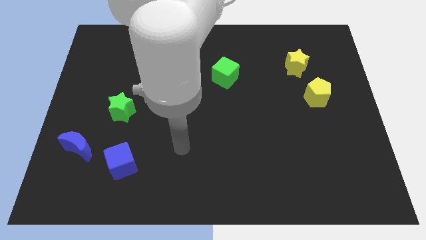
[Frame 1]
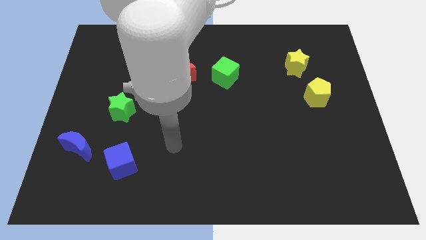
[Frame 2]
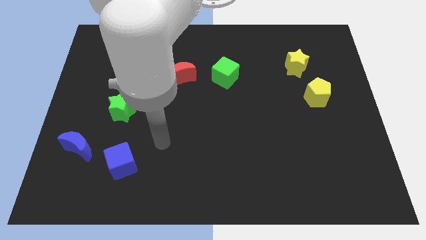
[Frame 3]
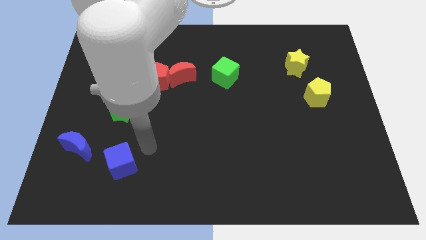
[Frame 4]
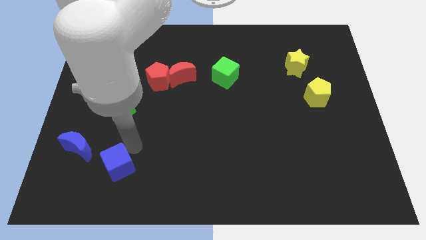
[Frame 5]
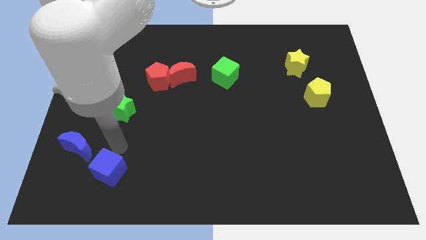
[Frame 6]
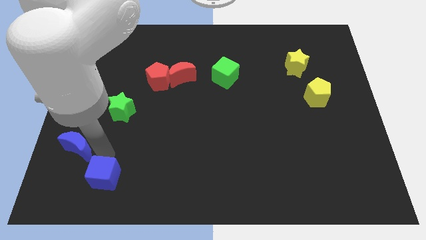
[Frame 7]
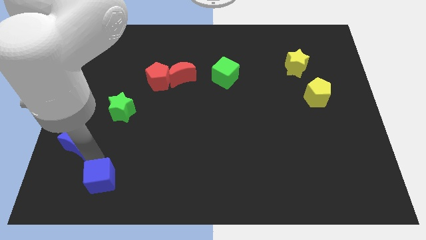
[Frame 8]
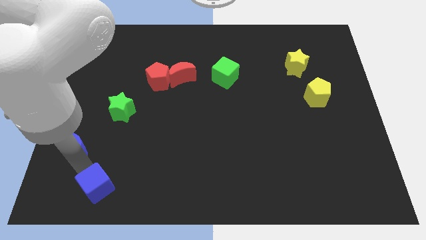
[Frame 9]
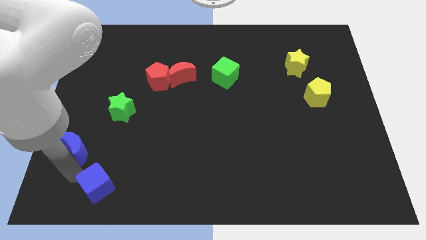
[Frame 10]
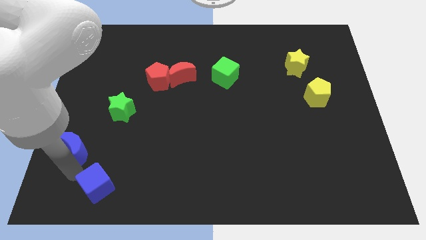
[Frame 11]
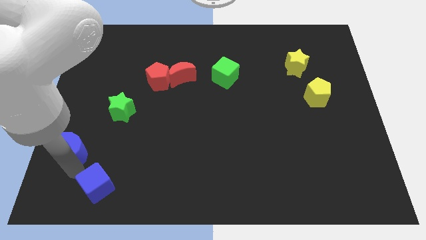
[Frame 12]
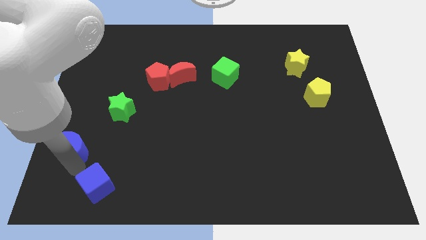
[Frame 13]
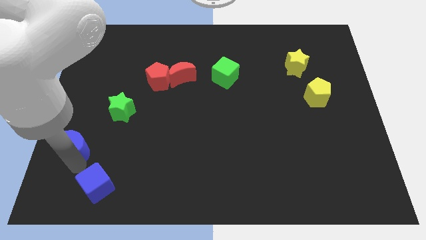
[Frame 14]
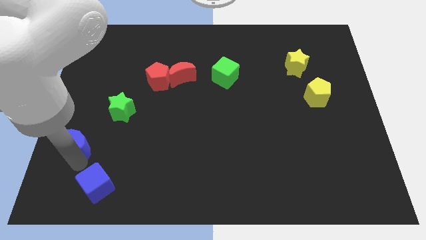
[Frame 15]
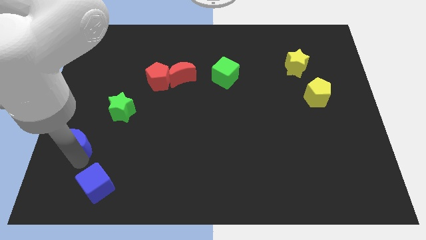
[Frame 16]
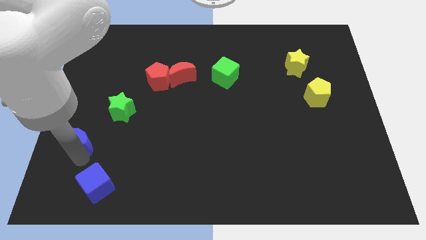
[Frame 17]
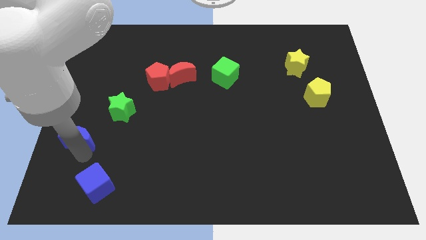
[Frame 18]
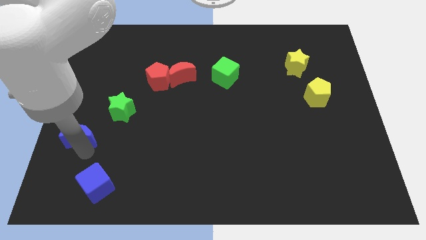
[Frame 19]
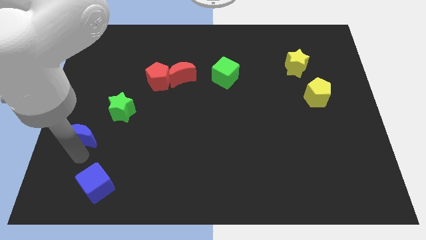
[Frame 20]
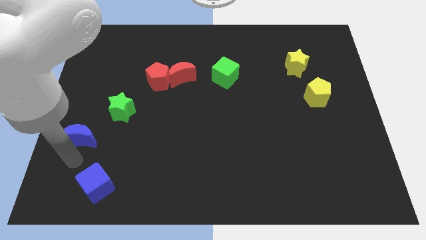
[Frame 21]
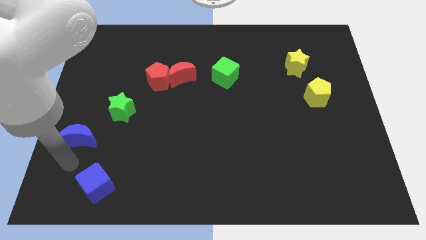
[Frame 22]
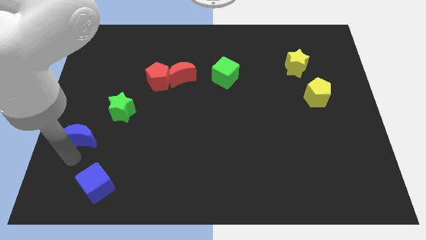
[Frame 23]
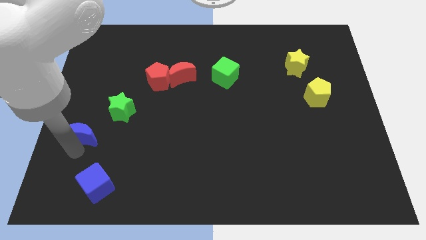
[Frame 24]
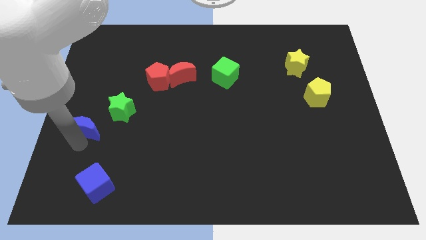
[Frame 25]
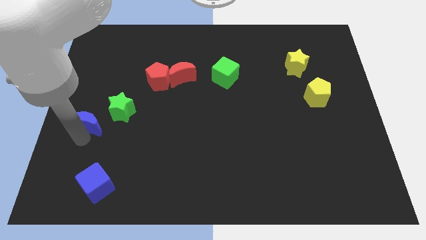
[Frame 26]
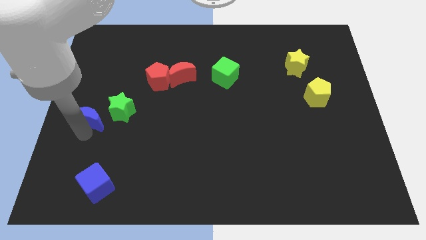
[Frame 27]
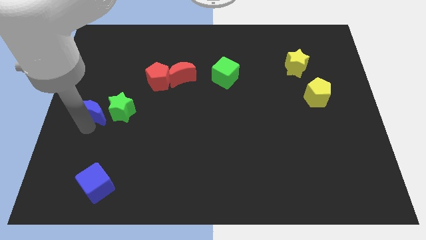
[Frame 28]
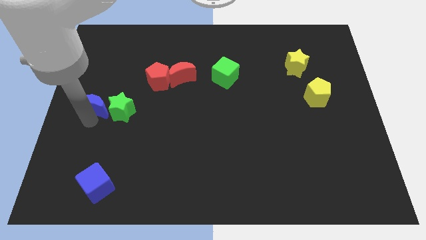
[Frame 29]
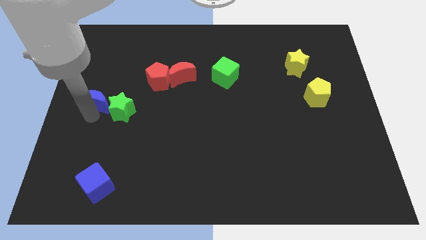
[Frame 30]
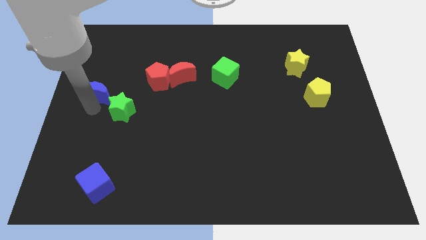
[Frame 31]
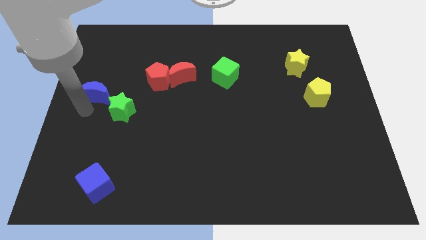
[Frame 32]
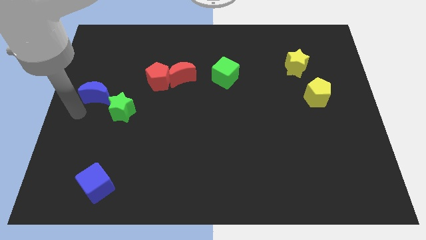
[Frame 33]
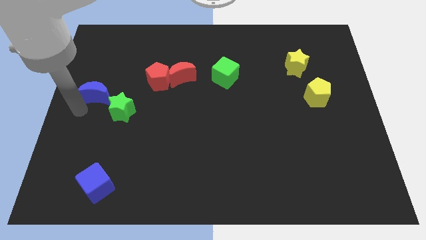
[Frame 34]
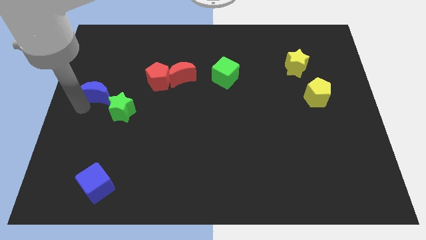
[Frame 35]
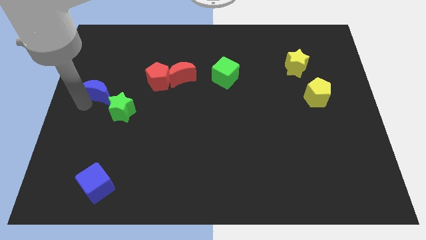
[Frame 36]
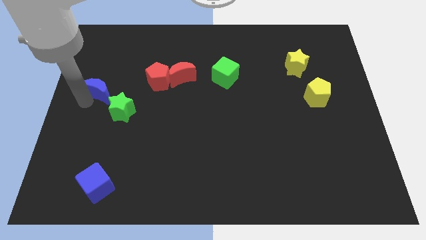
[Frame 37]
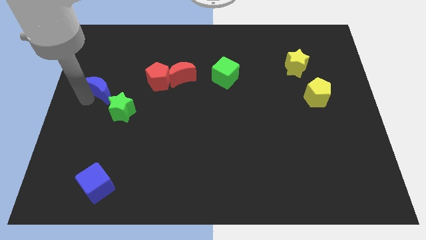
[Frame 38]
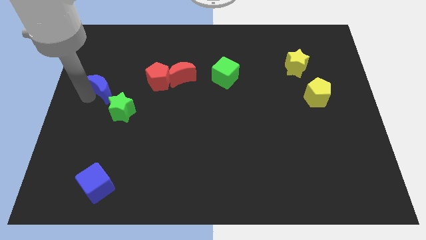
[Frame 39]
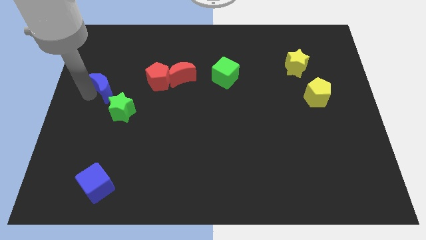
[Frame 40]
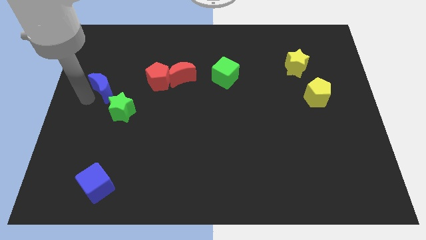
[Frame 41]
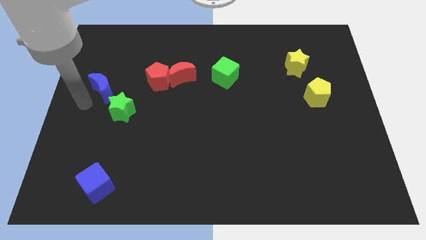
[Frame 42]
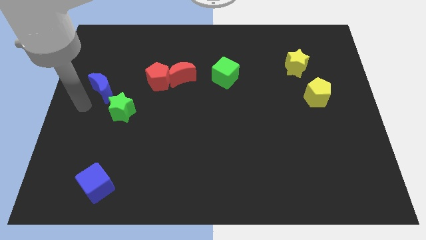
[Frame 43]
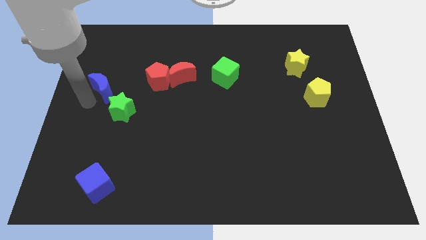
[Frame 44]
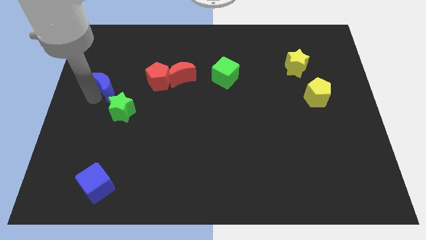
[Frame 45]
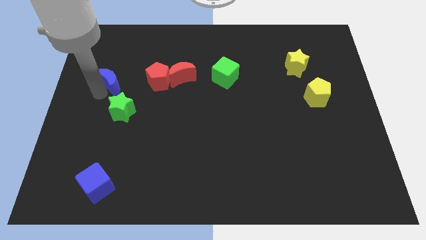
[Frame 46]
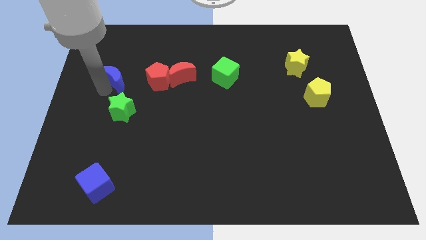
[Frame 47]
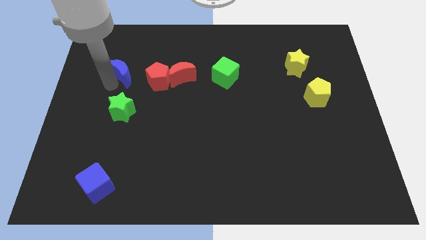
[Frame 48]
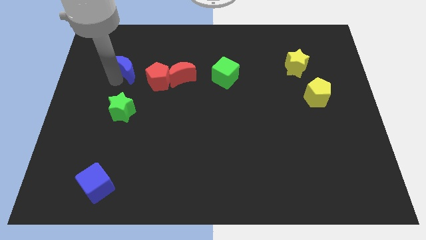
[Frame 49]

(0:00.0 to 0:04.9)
push the blue moon to the top left of the red pentagon

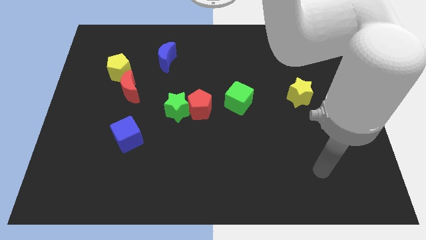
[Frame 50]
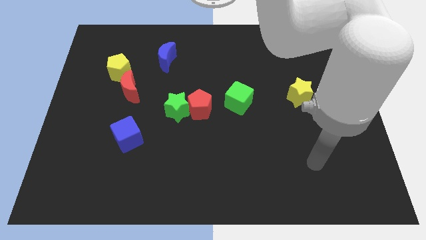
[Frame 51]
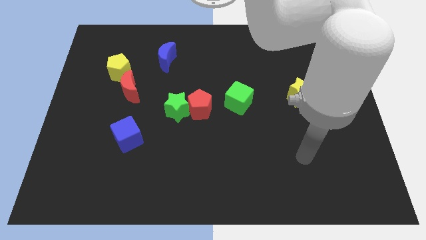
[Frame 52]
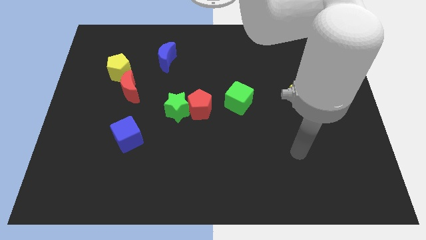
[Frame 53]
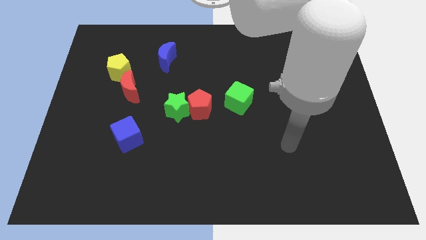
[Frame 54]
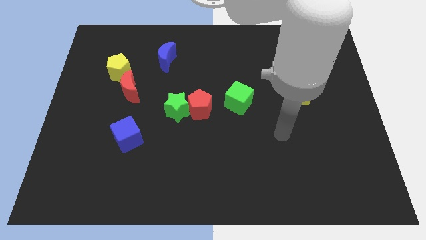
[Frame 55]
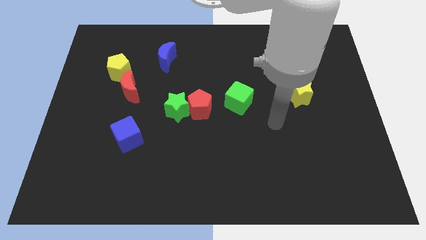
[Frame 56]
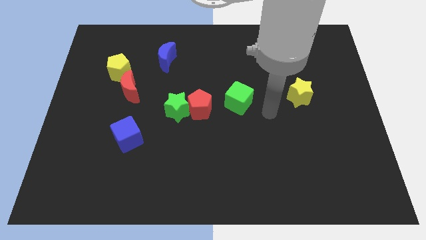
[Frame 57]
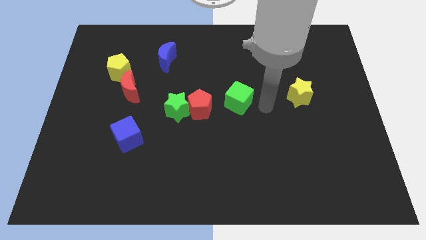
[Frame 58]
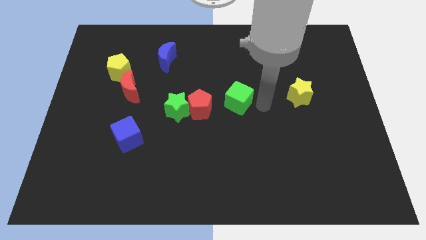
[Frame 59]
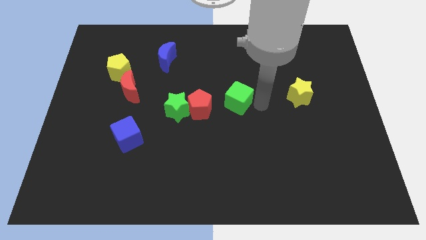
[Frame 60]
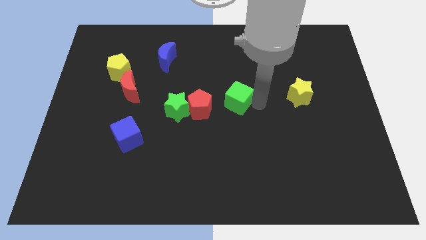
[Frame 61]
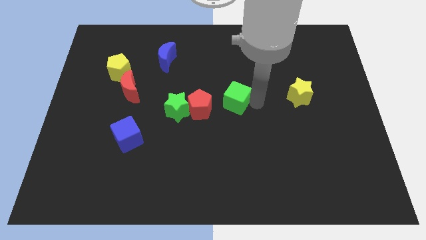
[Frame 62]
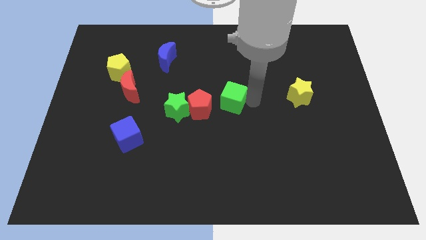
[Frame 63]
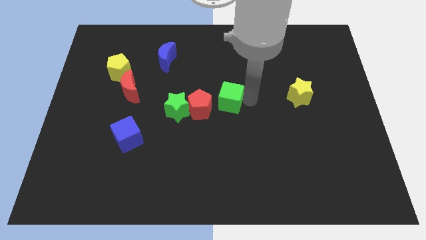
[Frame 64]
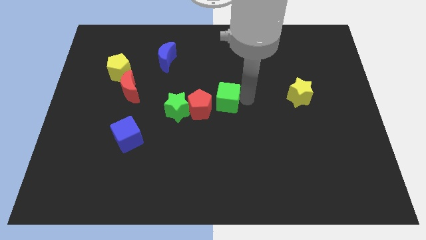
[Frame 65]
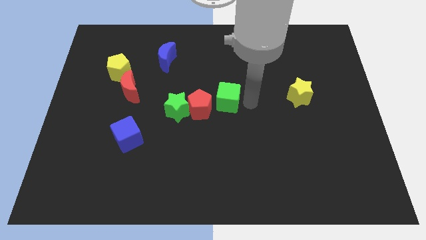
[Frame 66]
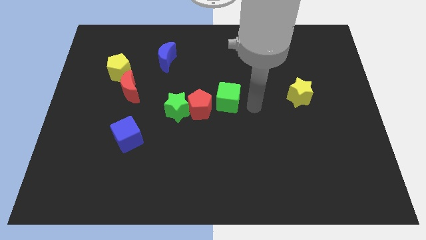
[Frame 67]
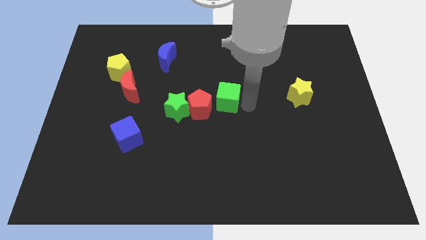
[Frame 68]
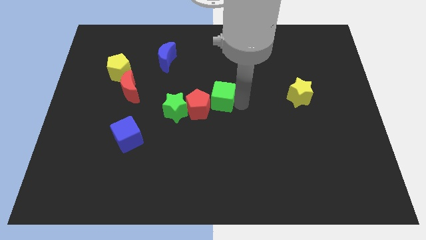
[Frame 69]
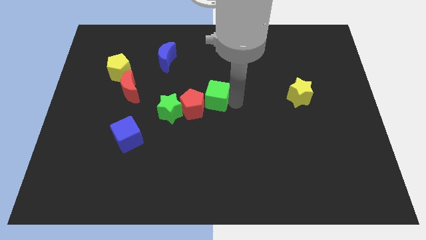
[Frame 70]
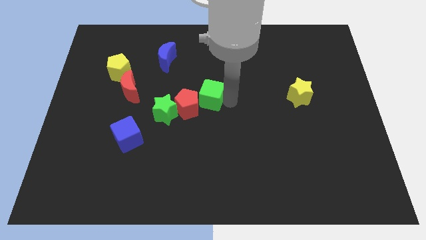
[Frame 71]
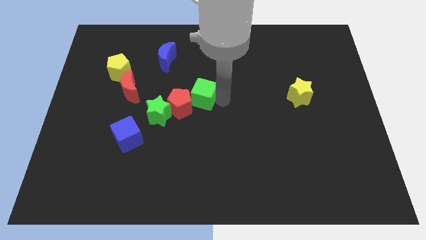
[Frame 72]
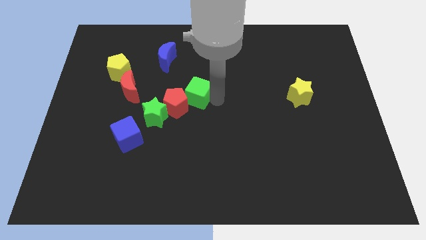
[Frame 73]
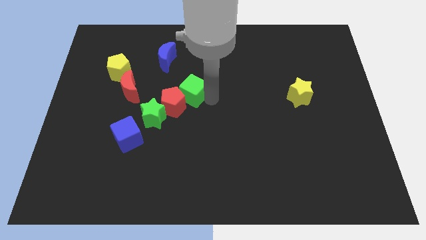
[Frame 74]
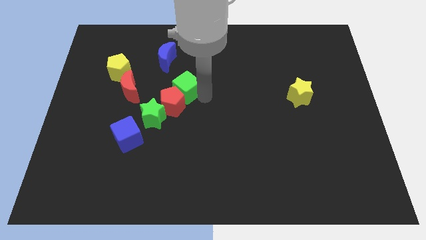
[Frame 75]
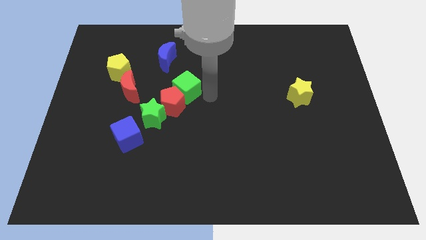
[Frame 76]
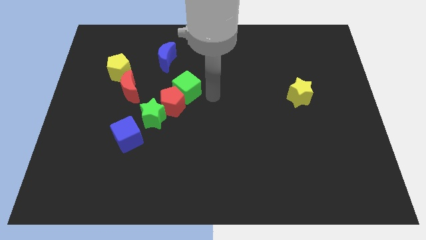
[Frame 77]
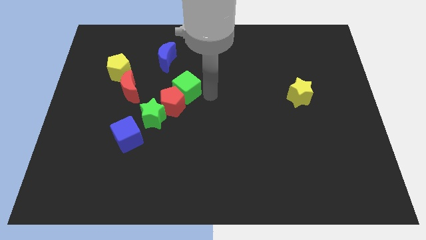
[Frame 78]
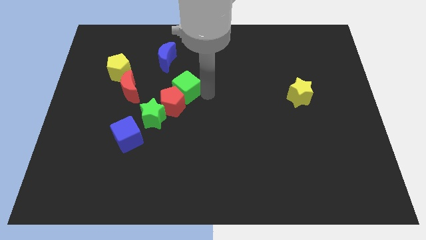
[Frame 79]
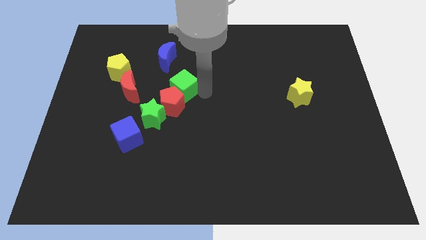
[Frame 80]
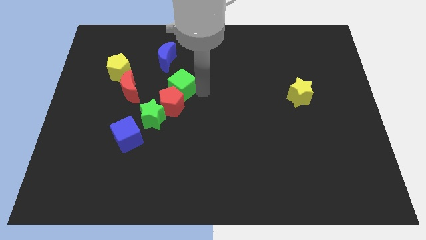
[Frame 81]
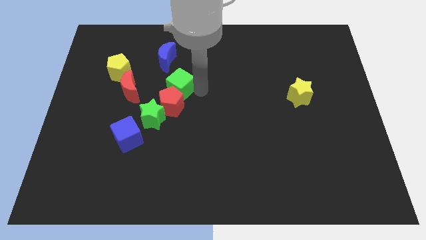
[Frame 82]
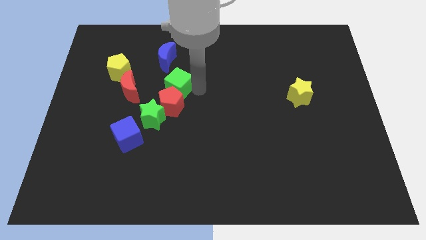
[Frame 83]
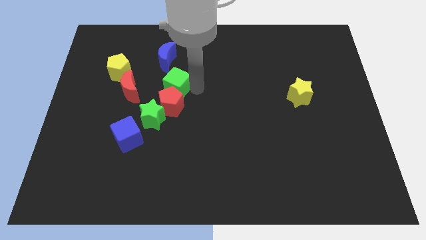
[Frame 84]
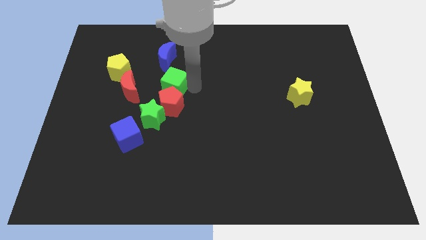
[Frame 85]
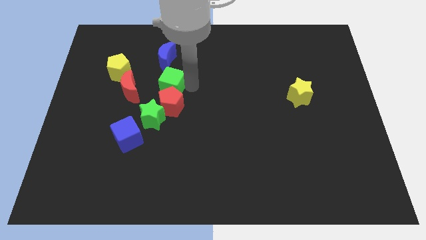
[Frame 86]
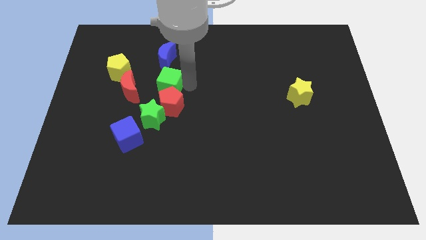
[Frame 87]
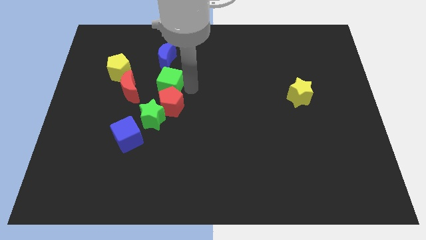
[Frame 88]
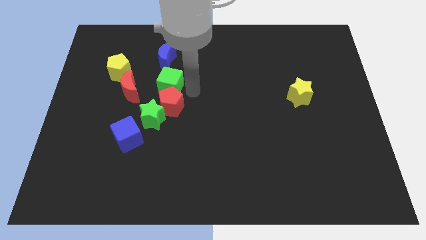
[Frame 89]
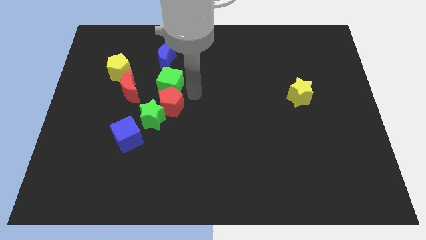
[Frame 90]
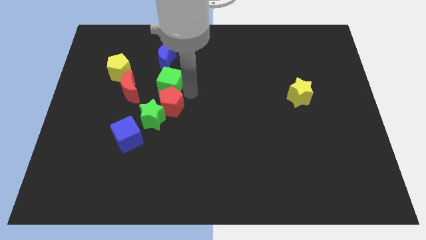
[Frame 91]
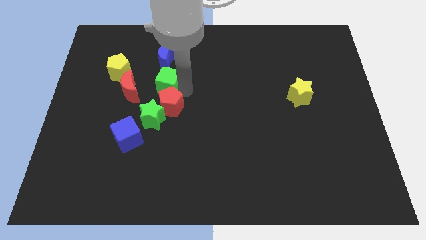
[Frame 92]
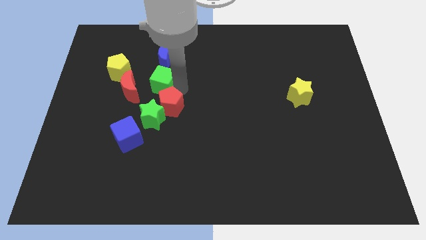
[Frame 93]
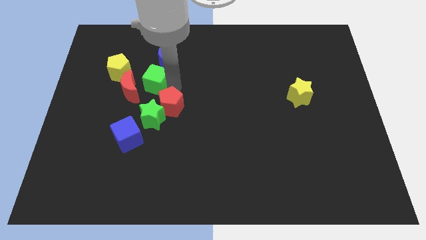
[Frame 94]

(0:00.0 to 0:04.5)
move the green cube to the bottom left side of the blue moon
